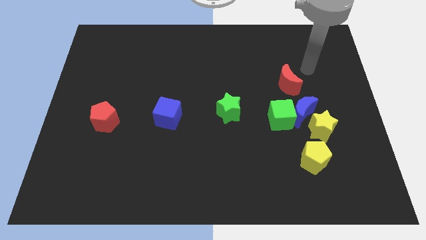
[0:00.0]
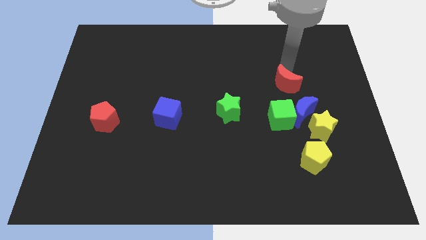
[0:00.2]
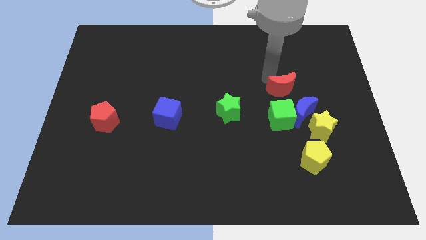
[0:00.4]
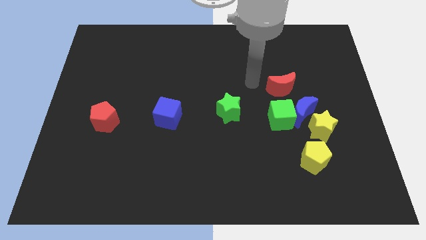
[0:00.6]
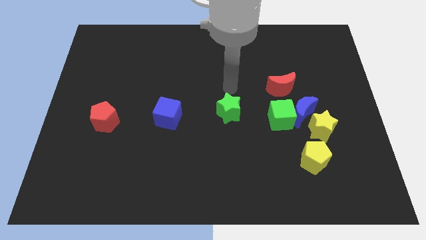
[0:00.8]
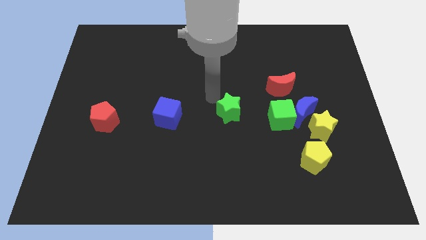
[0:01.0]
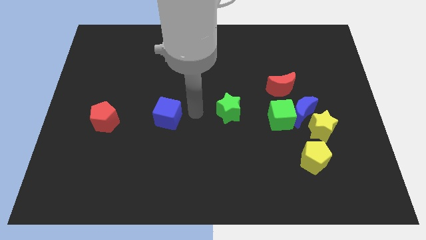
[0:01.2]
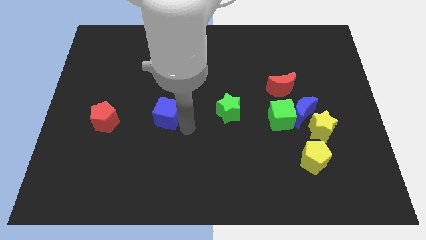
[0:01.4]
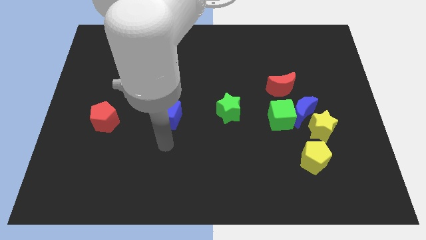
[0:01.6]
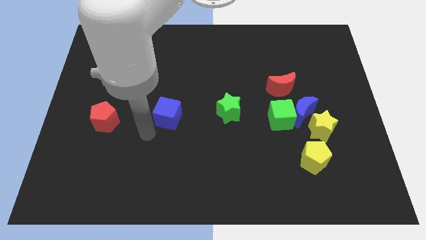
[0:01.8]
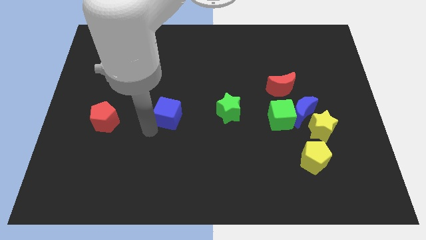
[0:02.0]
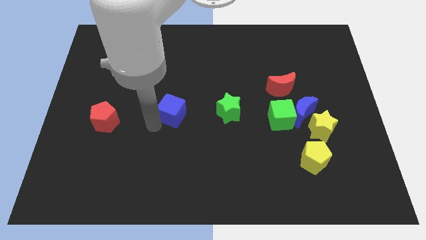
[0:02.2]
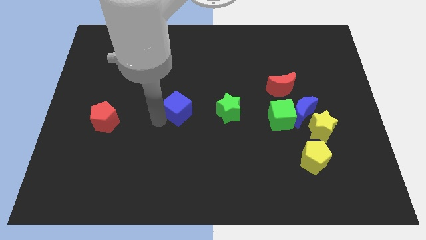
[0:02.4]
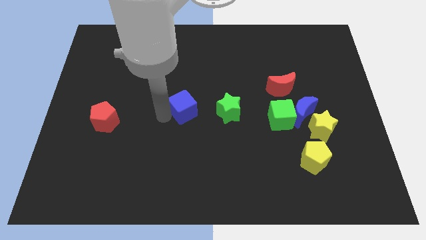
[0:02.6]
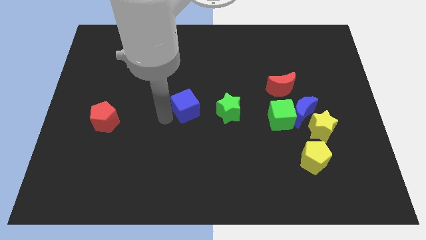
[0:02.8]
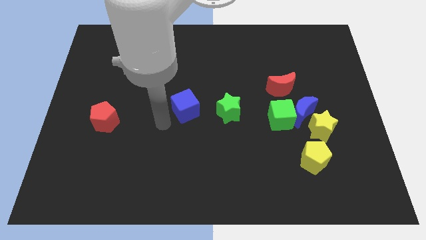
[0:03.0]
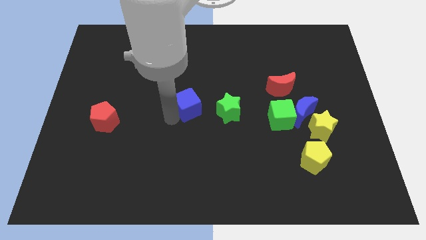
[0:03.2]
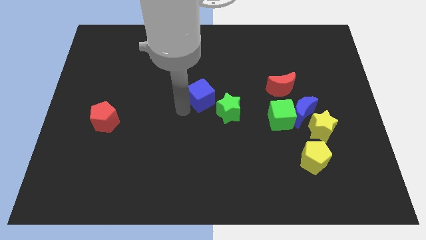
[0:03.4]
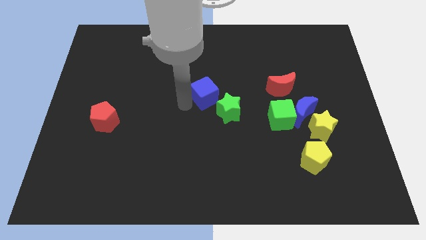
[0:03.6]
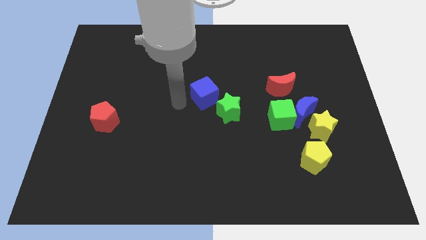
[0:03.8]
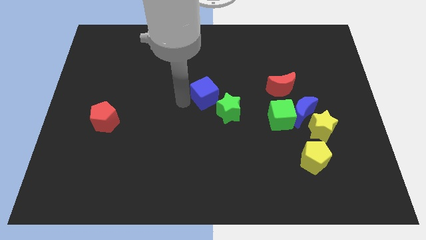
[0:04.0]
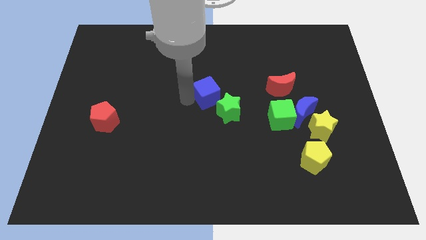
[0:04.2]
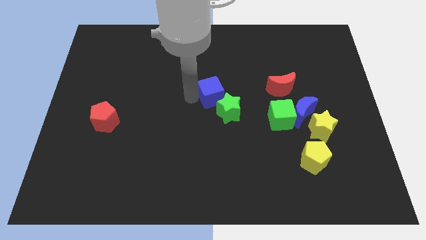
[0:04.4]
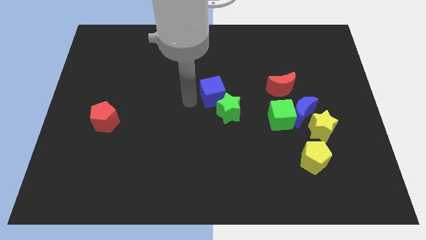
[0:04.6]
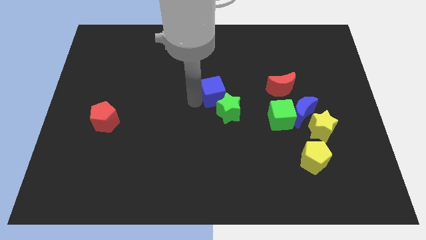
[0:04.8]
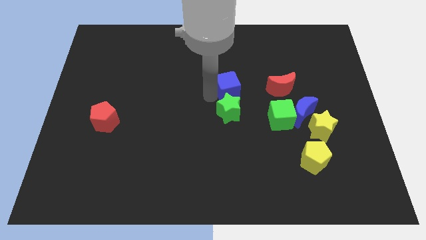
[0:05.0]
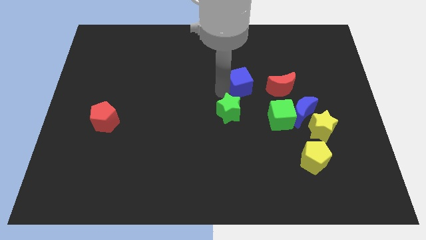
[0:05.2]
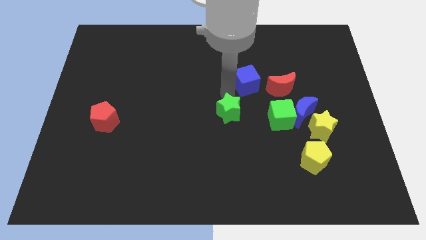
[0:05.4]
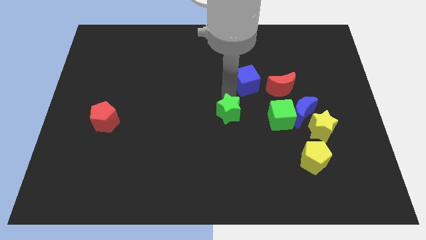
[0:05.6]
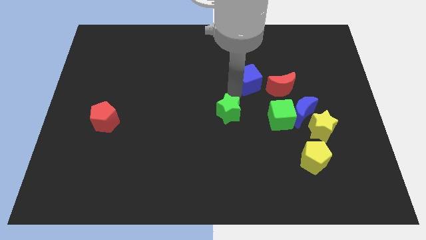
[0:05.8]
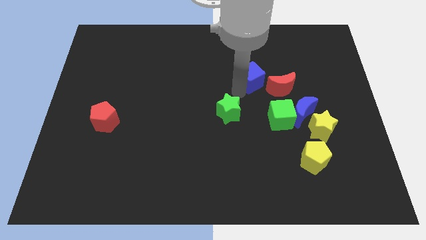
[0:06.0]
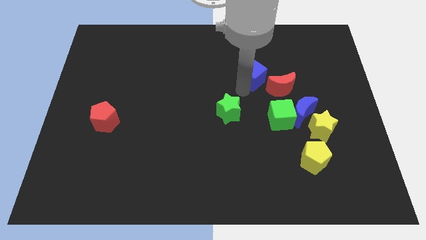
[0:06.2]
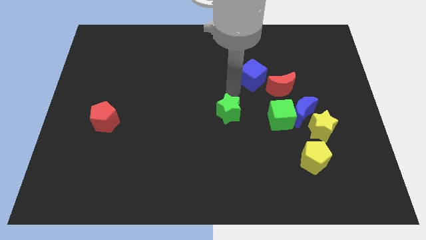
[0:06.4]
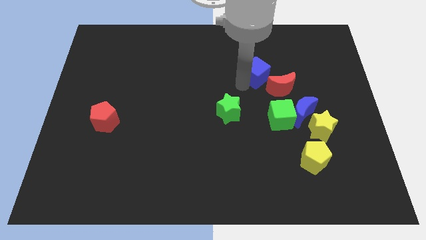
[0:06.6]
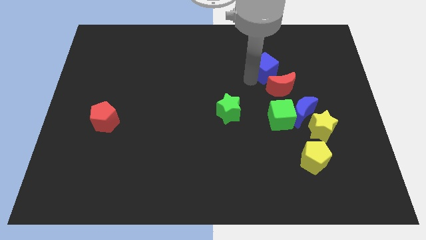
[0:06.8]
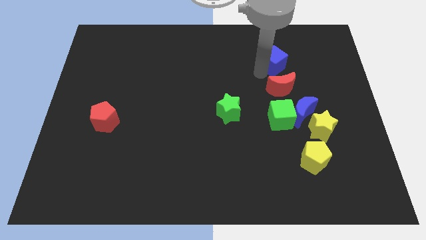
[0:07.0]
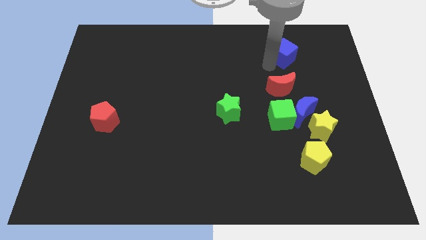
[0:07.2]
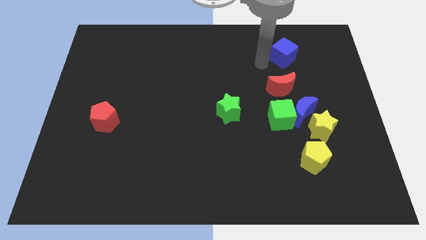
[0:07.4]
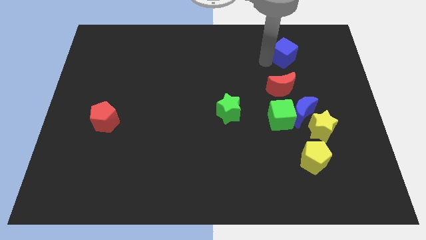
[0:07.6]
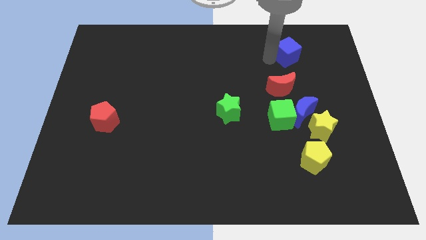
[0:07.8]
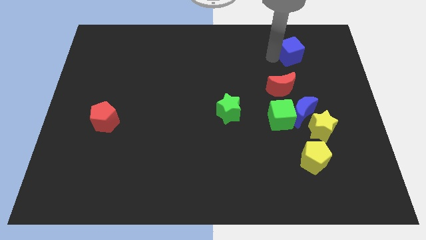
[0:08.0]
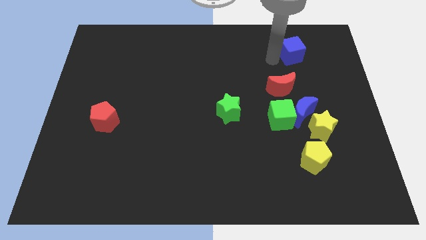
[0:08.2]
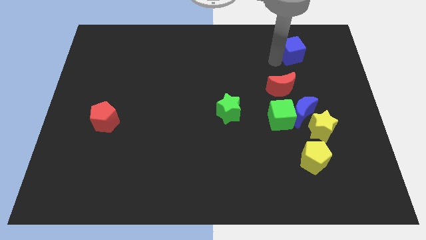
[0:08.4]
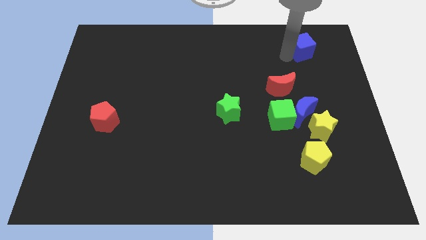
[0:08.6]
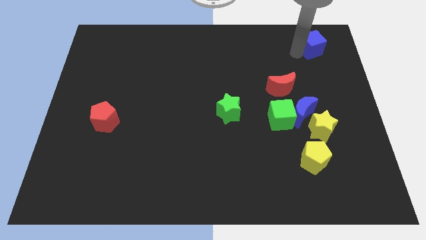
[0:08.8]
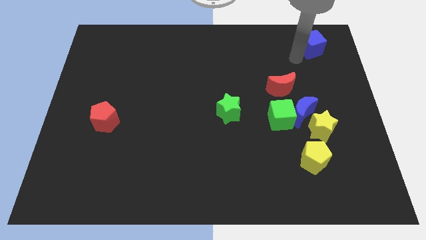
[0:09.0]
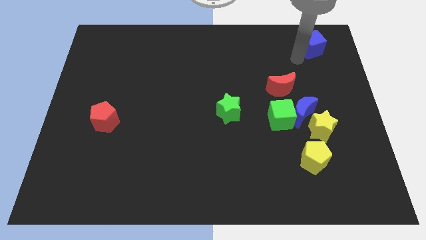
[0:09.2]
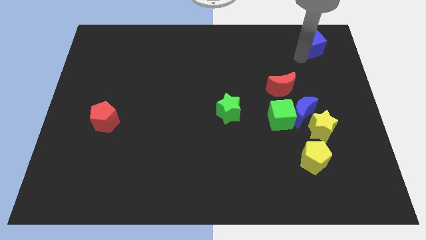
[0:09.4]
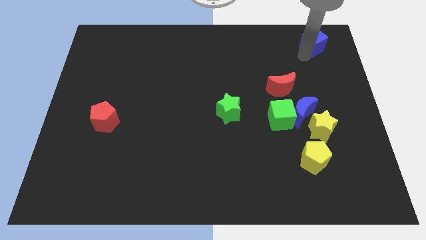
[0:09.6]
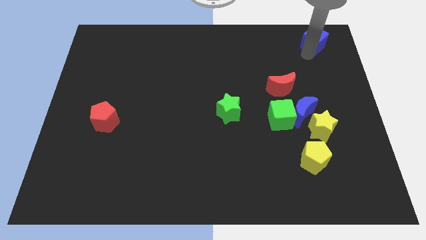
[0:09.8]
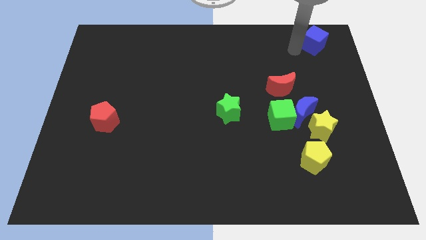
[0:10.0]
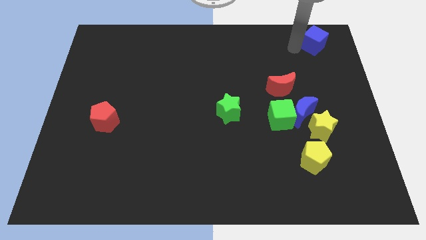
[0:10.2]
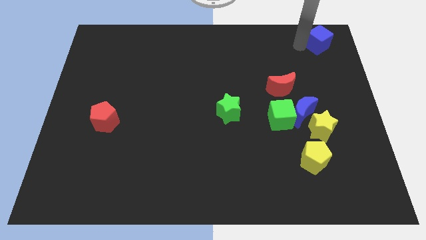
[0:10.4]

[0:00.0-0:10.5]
move the blue cube to the upper right corner

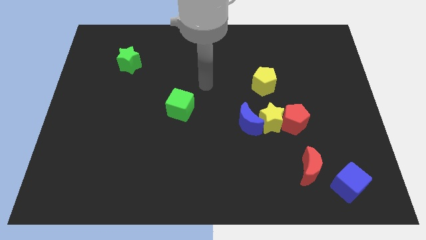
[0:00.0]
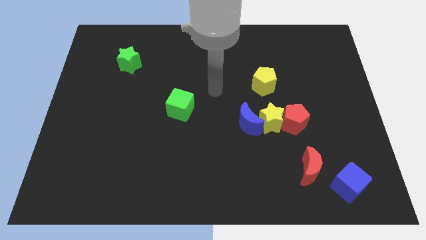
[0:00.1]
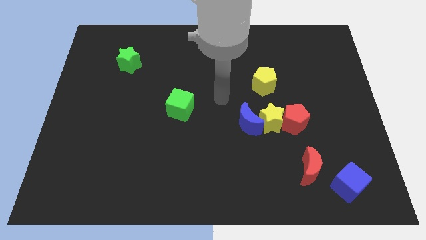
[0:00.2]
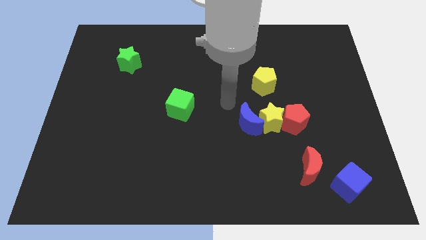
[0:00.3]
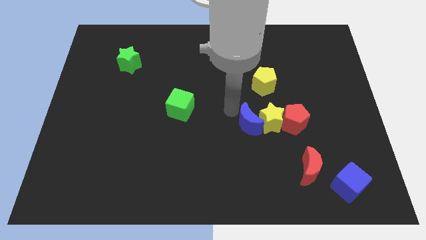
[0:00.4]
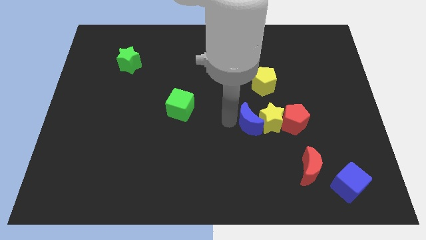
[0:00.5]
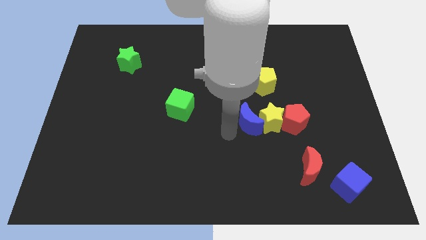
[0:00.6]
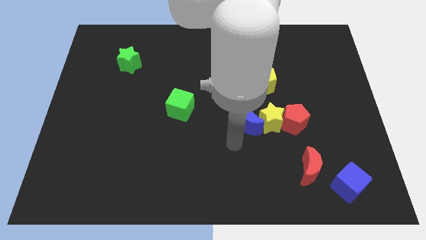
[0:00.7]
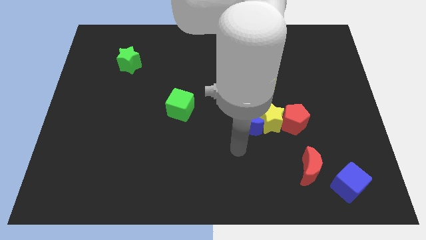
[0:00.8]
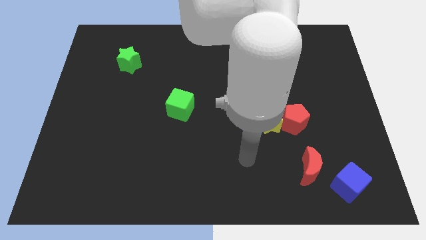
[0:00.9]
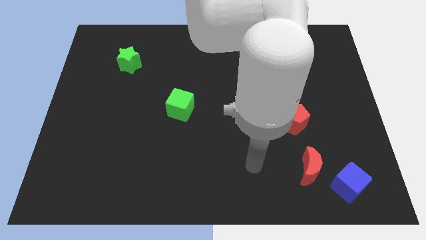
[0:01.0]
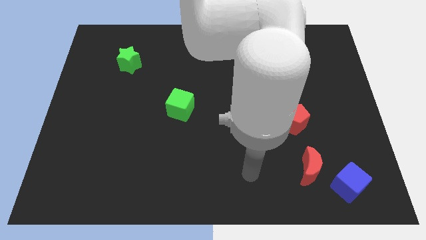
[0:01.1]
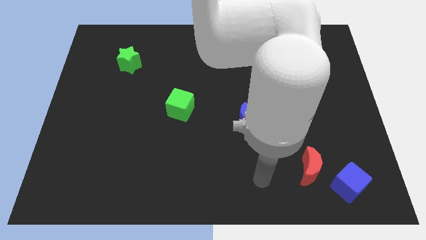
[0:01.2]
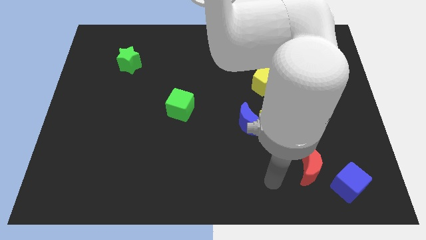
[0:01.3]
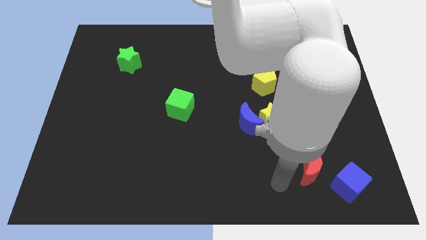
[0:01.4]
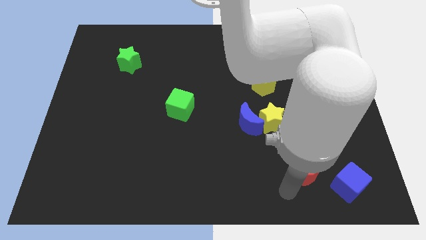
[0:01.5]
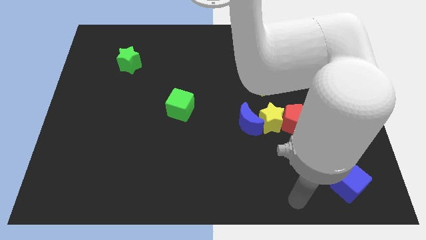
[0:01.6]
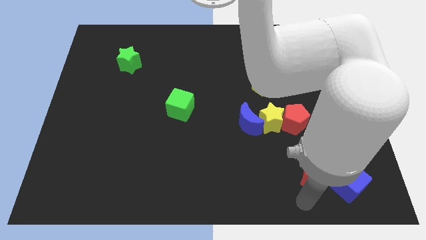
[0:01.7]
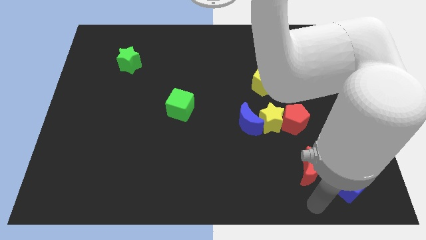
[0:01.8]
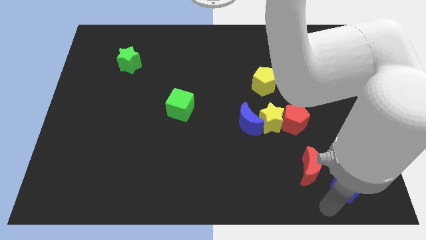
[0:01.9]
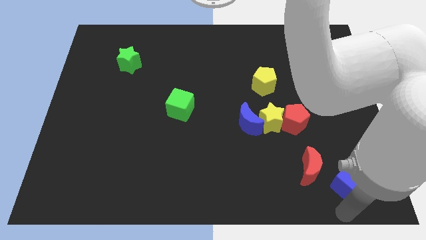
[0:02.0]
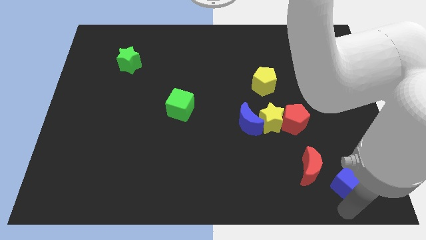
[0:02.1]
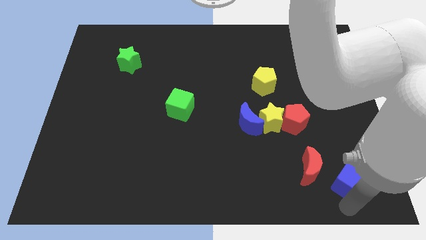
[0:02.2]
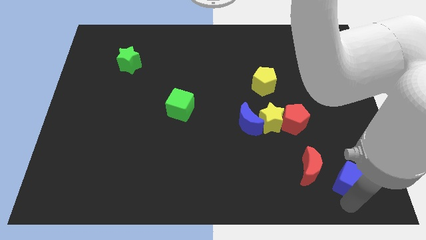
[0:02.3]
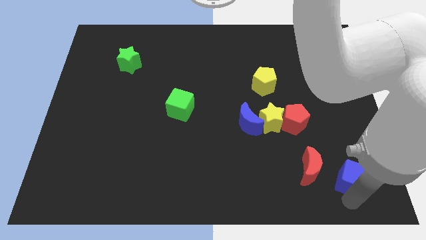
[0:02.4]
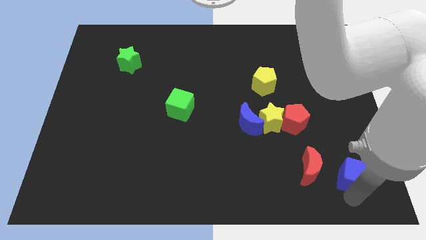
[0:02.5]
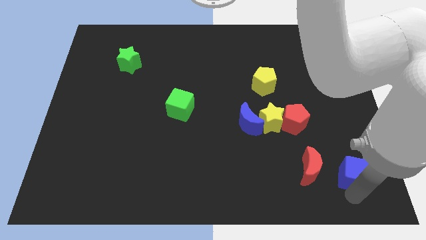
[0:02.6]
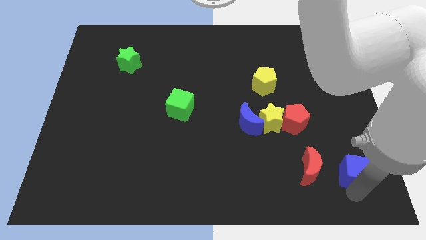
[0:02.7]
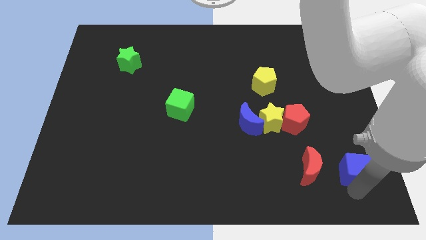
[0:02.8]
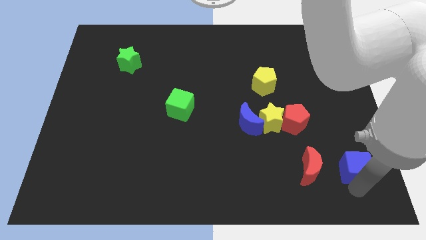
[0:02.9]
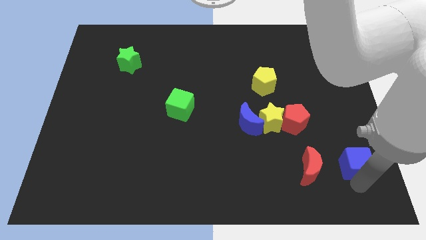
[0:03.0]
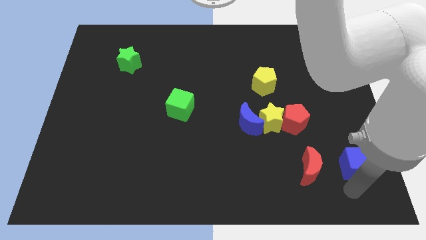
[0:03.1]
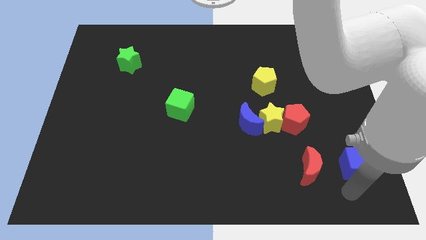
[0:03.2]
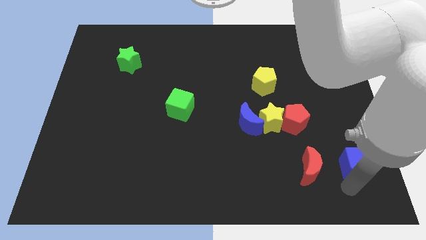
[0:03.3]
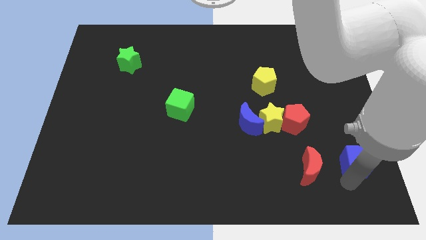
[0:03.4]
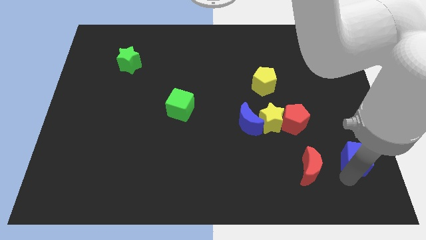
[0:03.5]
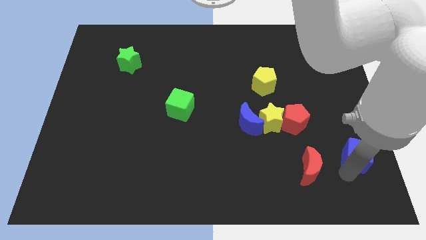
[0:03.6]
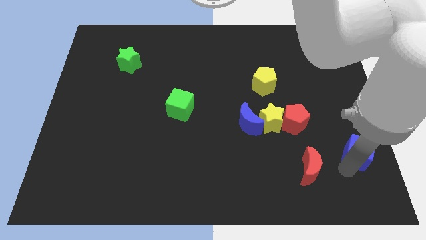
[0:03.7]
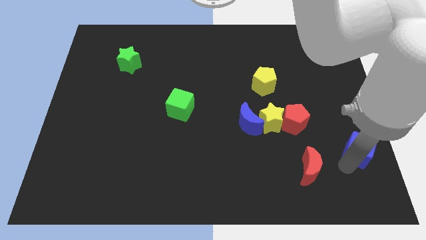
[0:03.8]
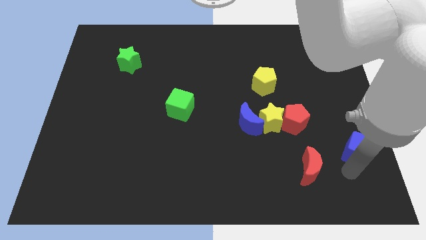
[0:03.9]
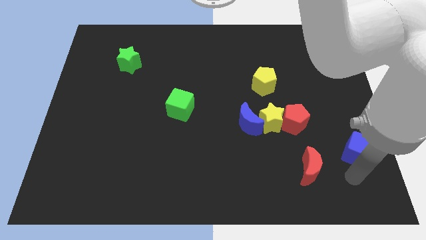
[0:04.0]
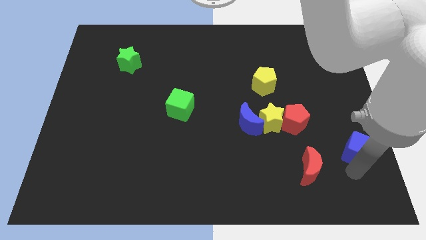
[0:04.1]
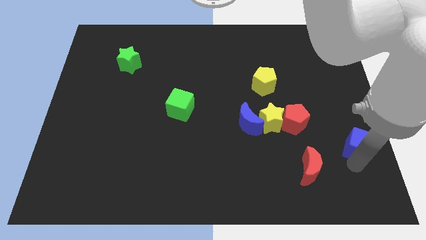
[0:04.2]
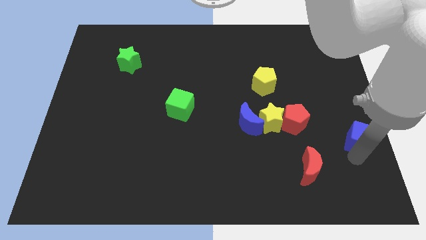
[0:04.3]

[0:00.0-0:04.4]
slide the blue cube to the right side
